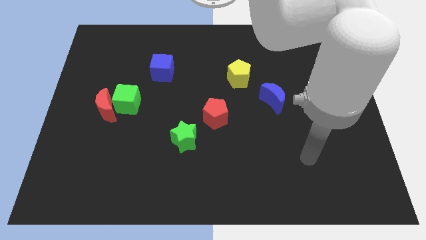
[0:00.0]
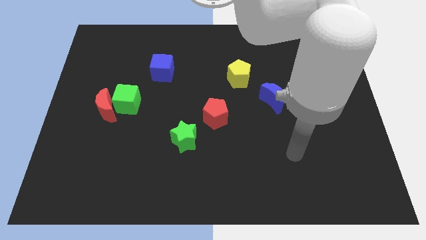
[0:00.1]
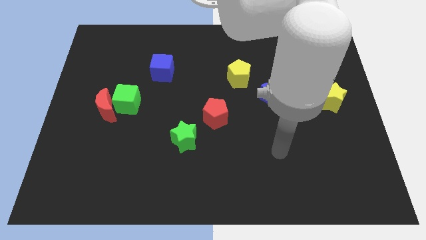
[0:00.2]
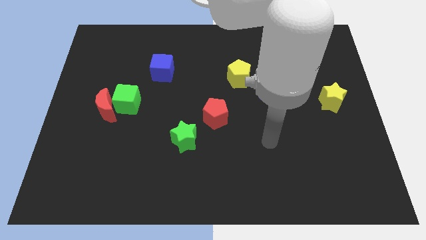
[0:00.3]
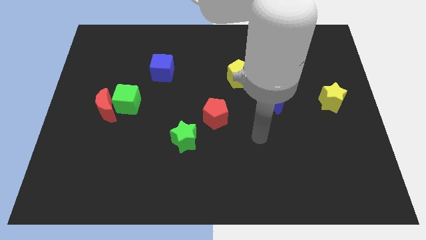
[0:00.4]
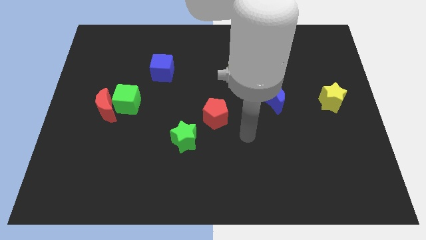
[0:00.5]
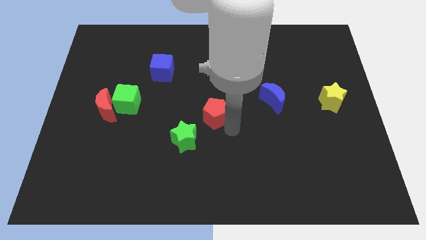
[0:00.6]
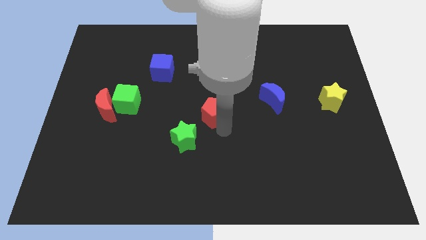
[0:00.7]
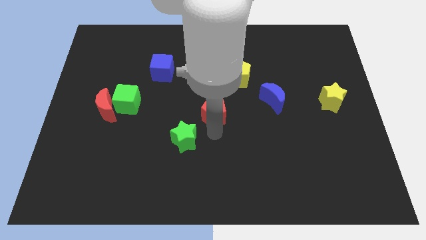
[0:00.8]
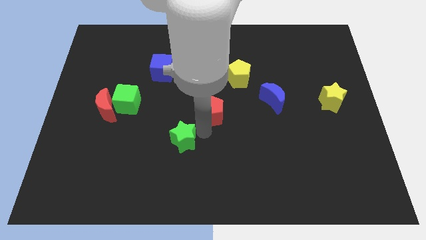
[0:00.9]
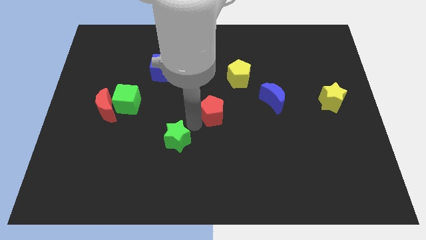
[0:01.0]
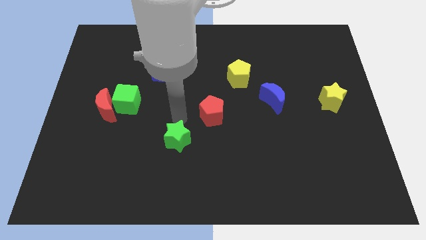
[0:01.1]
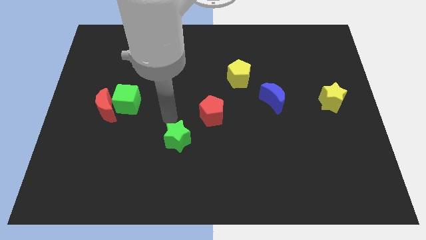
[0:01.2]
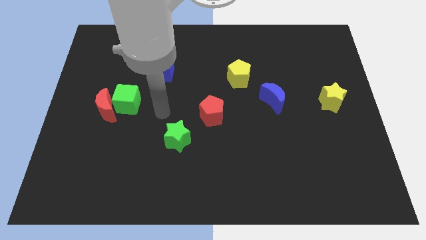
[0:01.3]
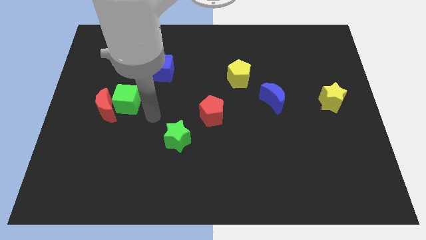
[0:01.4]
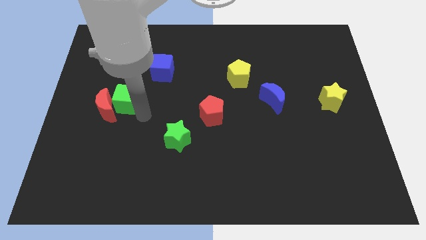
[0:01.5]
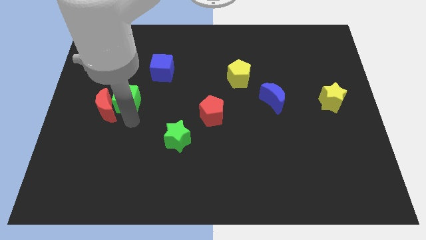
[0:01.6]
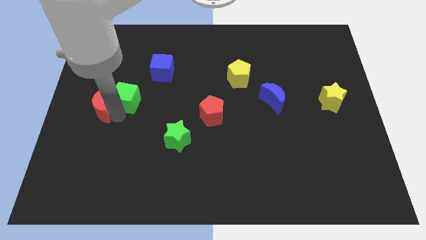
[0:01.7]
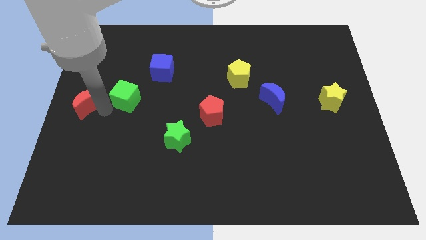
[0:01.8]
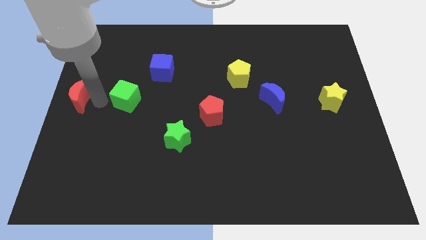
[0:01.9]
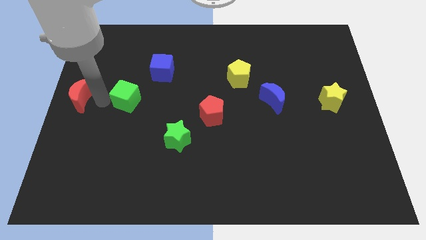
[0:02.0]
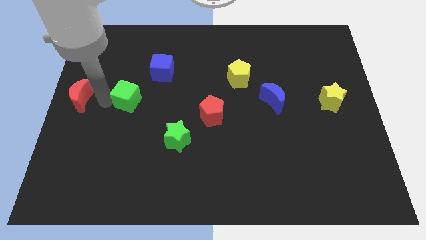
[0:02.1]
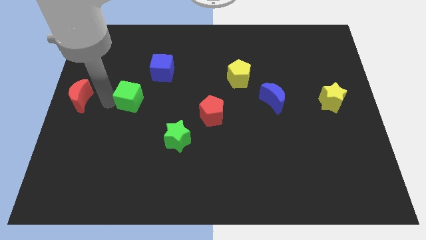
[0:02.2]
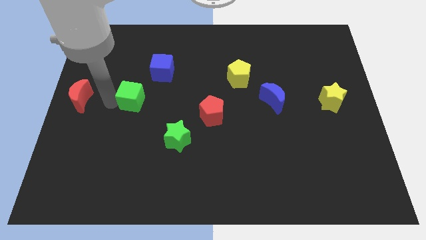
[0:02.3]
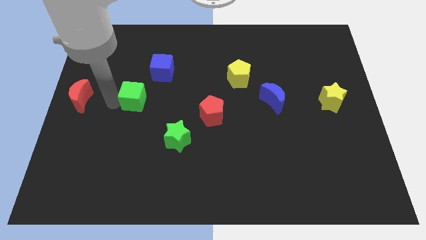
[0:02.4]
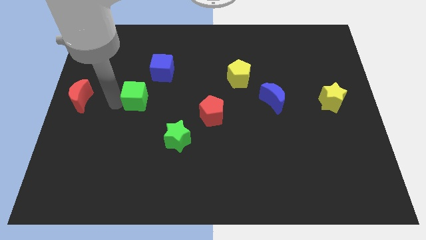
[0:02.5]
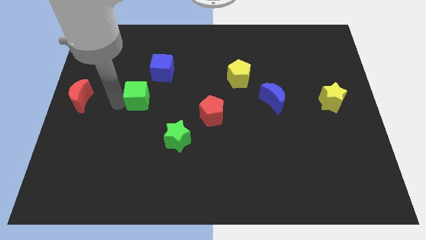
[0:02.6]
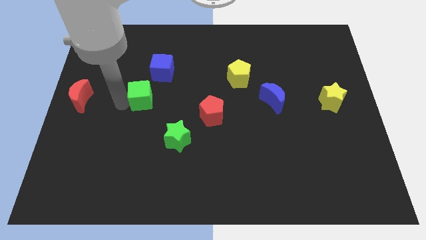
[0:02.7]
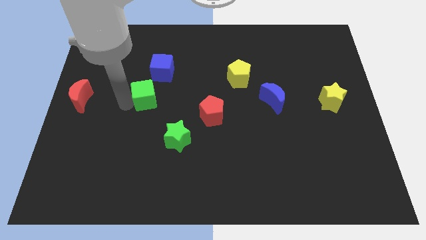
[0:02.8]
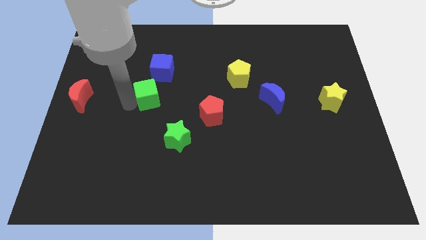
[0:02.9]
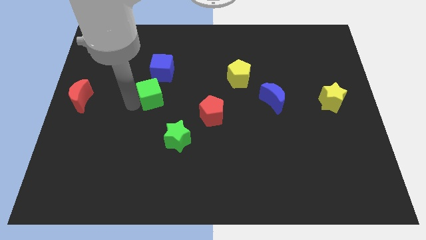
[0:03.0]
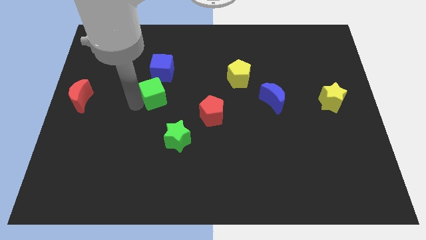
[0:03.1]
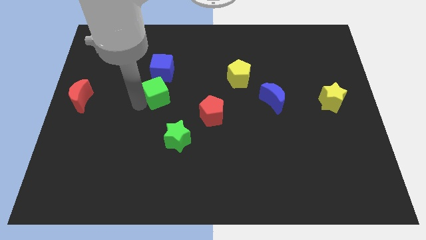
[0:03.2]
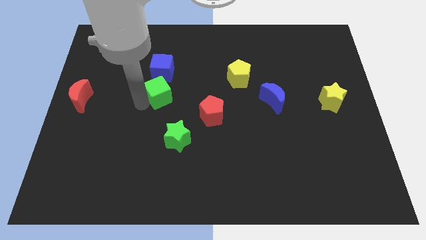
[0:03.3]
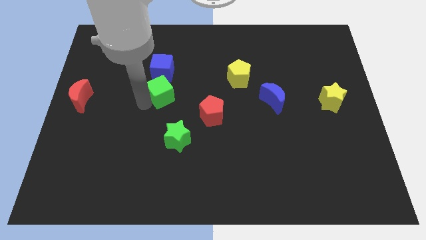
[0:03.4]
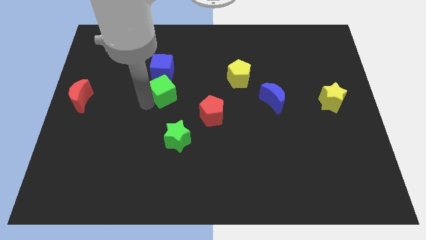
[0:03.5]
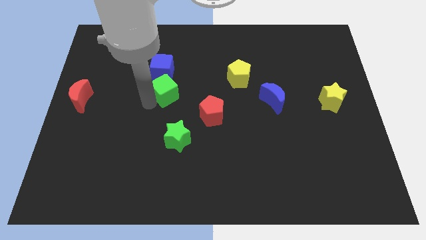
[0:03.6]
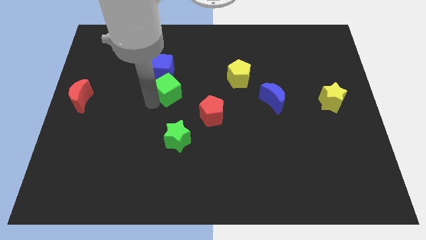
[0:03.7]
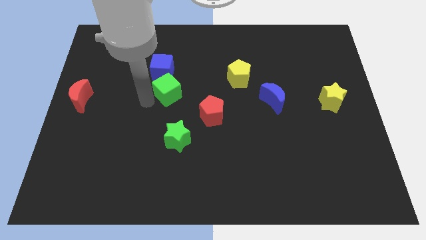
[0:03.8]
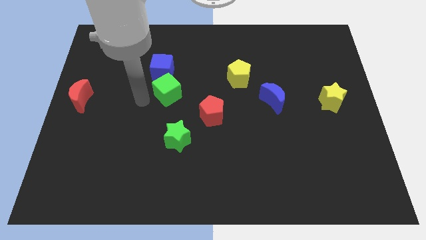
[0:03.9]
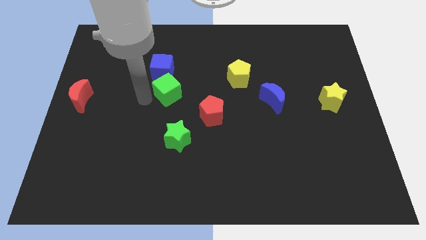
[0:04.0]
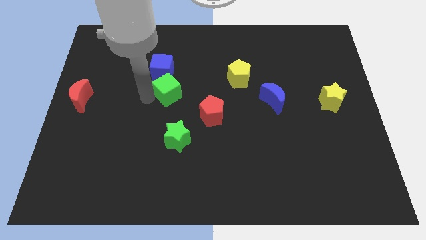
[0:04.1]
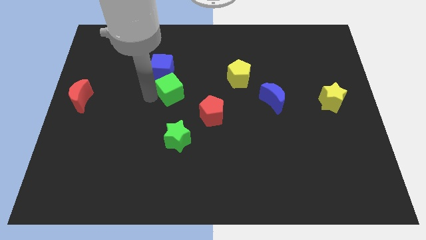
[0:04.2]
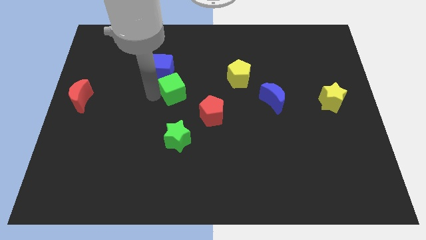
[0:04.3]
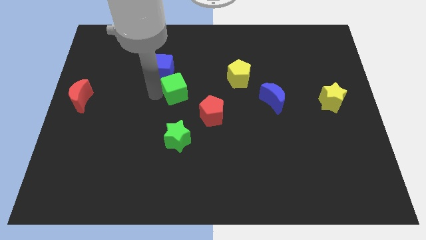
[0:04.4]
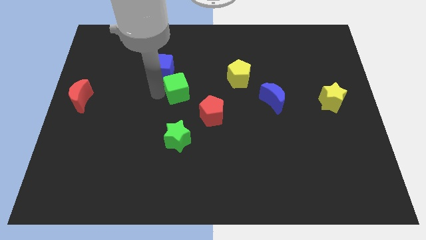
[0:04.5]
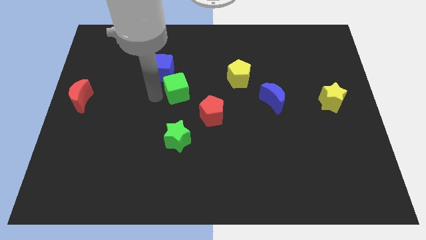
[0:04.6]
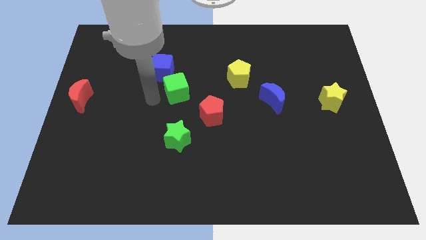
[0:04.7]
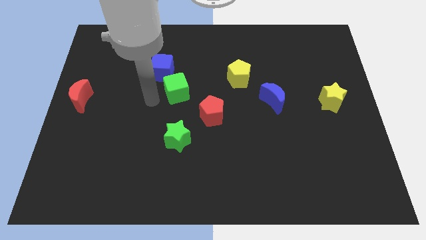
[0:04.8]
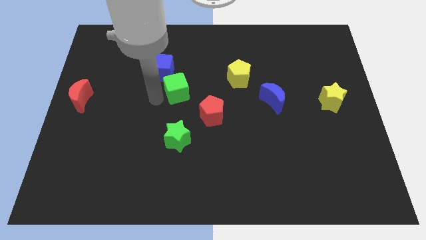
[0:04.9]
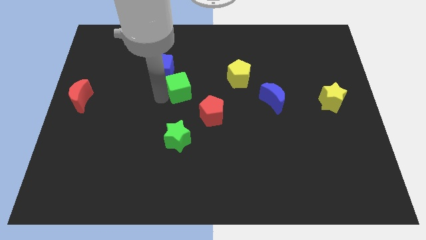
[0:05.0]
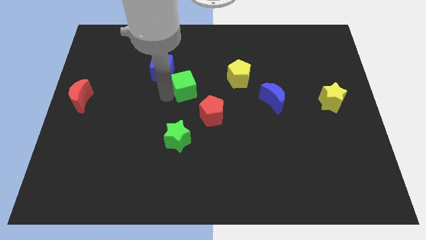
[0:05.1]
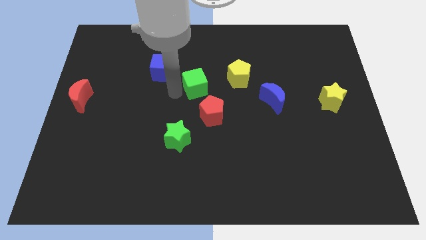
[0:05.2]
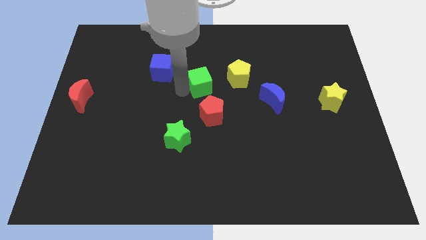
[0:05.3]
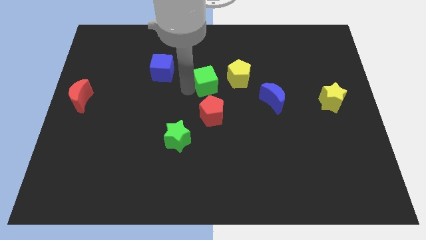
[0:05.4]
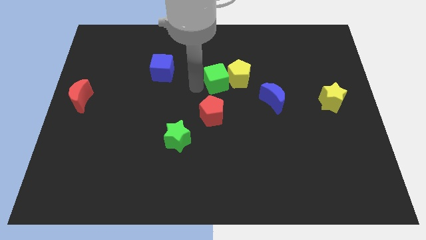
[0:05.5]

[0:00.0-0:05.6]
move the green cube to the yellow pentagon

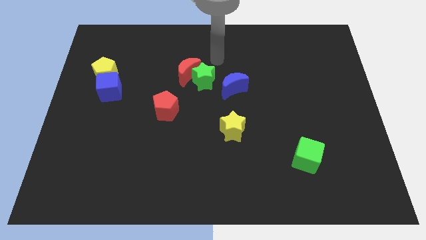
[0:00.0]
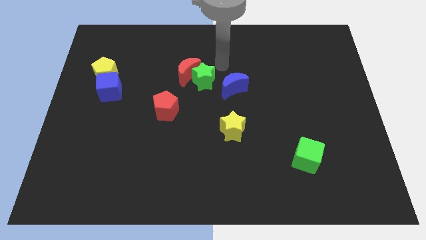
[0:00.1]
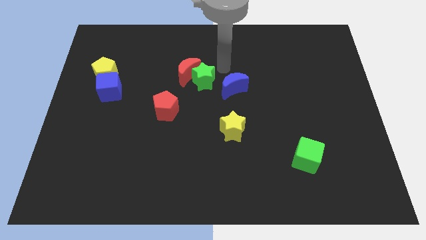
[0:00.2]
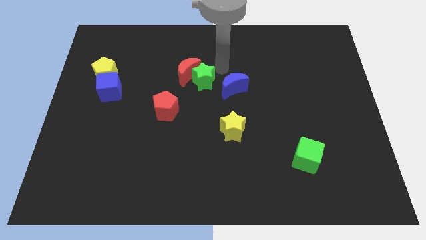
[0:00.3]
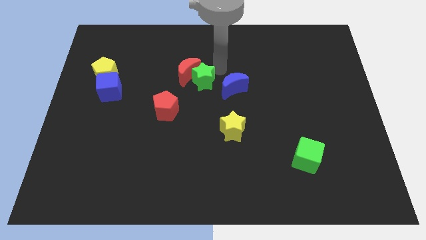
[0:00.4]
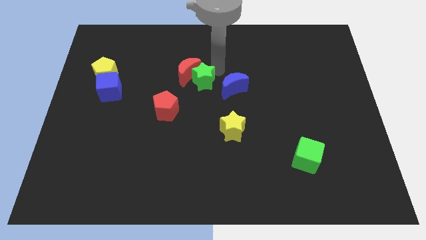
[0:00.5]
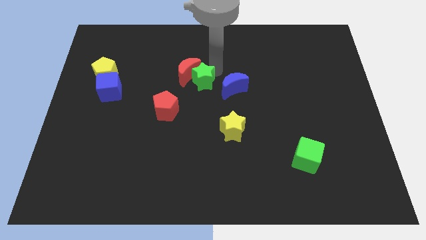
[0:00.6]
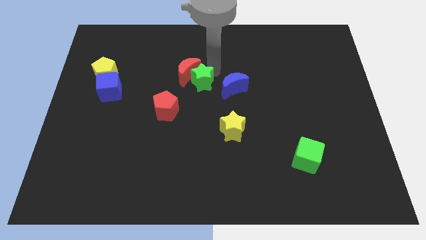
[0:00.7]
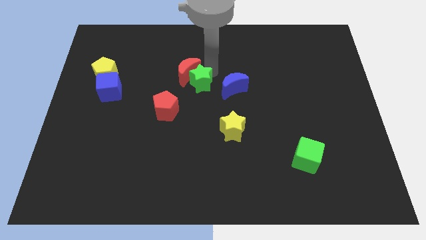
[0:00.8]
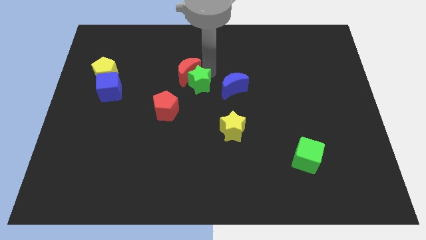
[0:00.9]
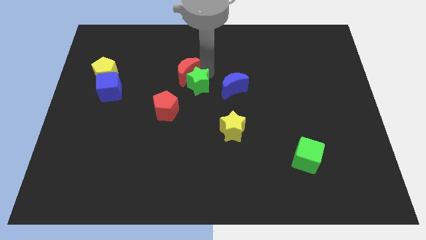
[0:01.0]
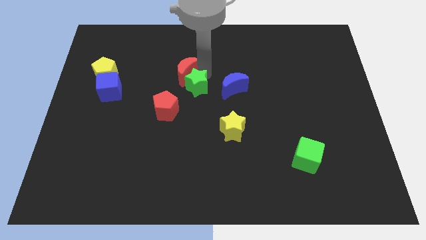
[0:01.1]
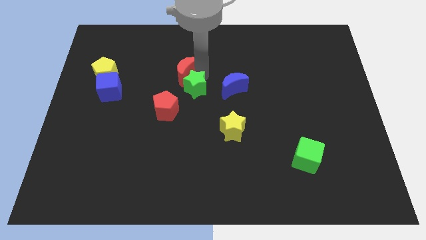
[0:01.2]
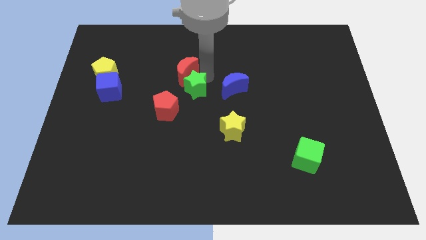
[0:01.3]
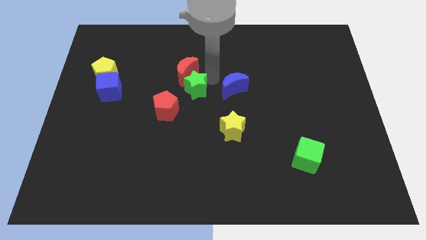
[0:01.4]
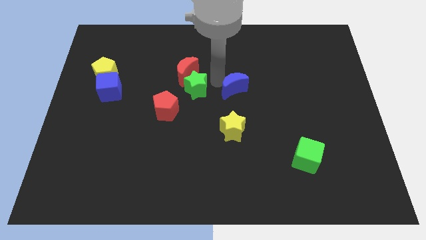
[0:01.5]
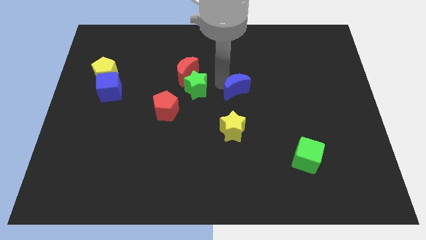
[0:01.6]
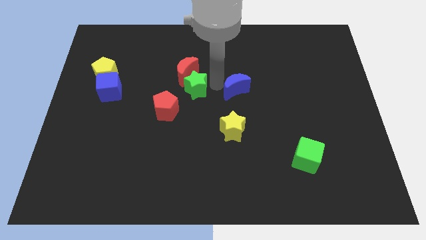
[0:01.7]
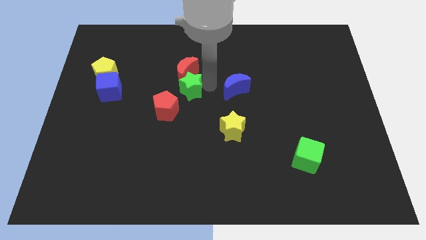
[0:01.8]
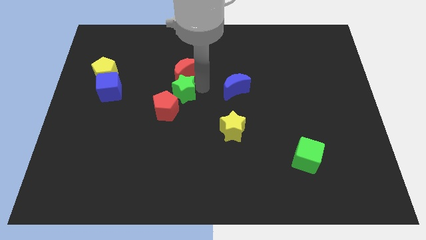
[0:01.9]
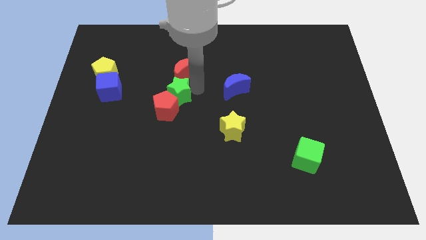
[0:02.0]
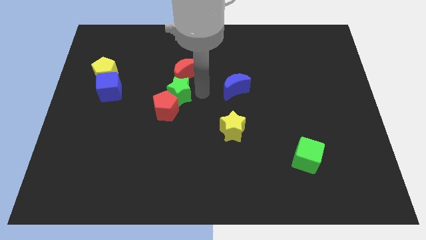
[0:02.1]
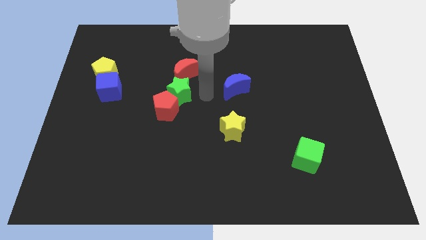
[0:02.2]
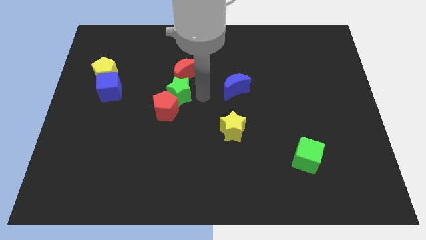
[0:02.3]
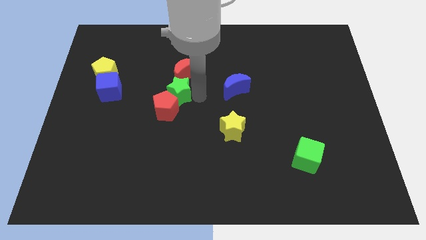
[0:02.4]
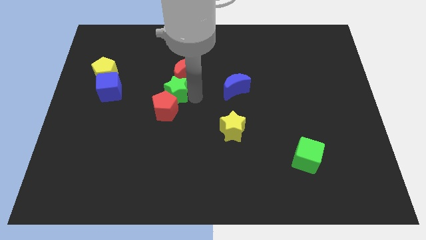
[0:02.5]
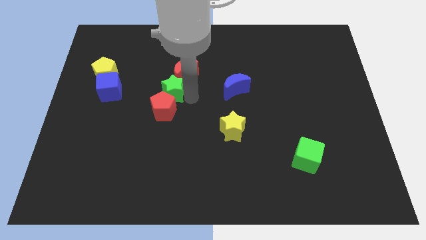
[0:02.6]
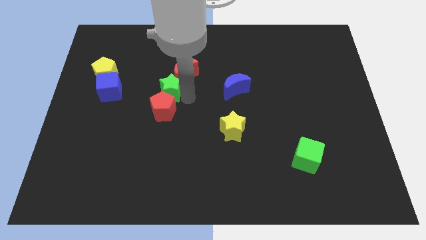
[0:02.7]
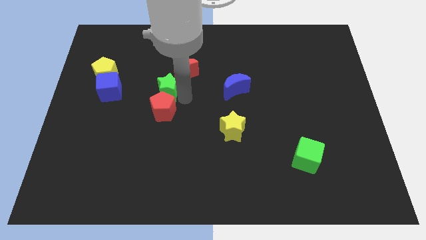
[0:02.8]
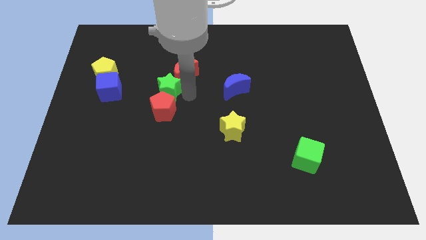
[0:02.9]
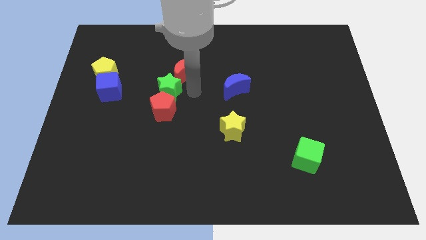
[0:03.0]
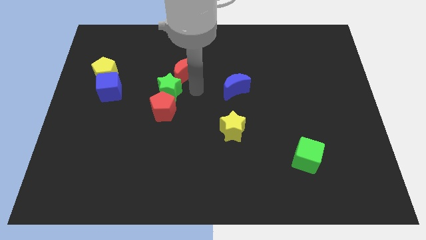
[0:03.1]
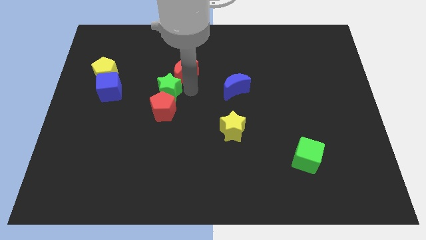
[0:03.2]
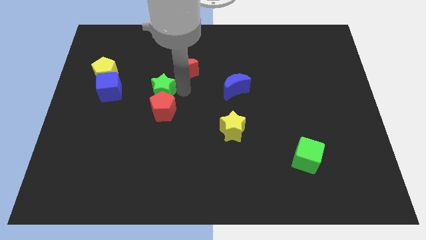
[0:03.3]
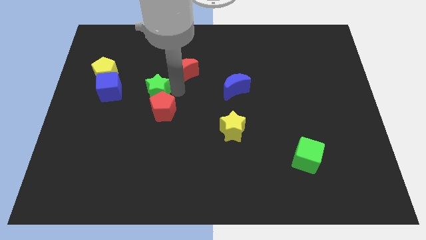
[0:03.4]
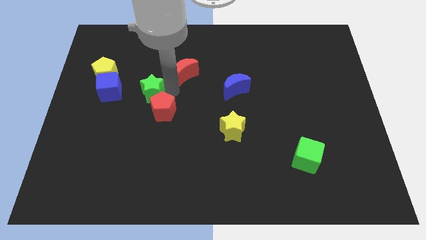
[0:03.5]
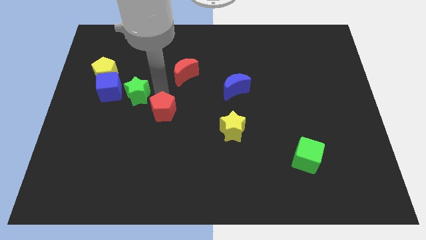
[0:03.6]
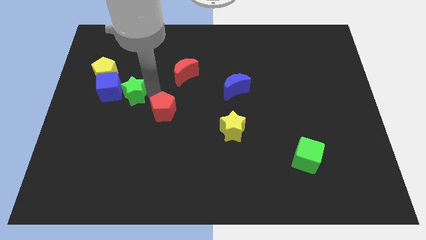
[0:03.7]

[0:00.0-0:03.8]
put the green star close to the blue cube
